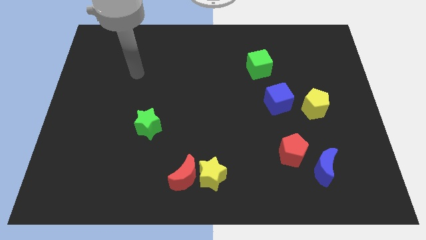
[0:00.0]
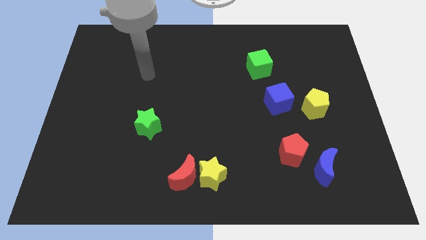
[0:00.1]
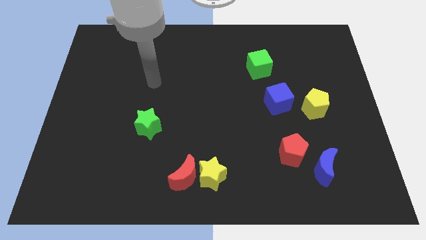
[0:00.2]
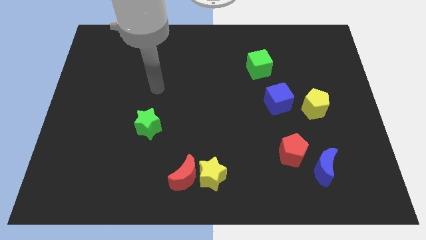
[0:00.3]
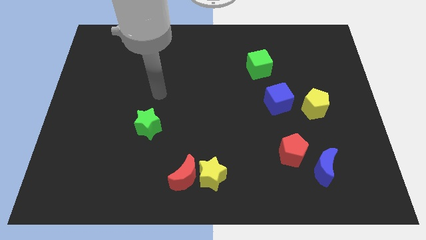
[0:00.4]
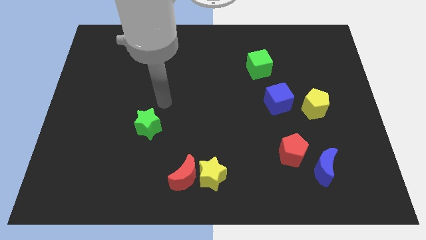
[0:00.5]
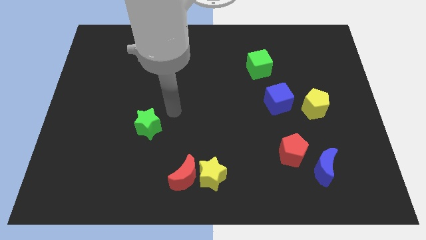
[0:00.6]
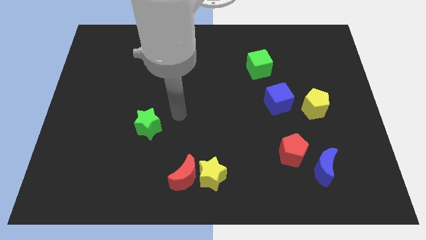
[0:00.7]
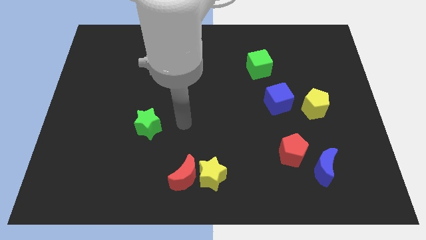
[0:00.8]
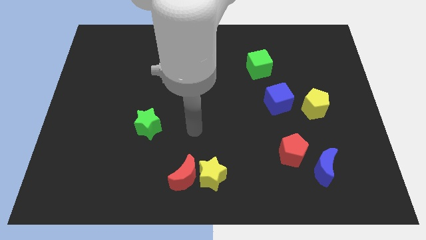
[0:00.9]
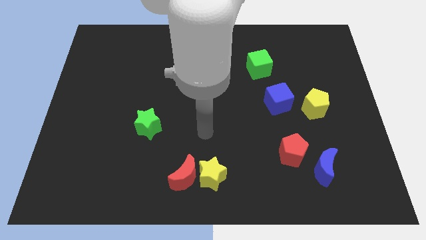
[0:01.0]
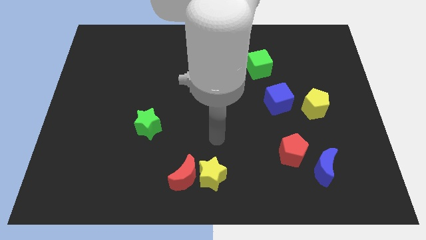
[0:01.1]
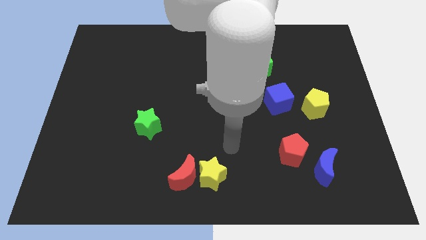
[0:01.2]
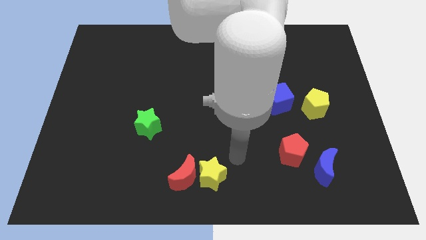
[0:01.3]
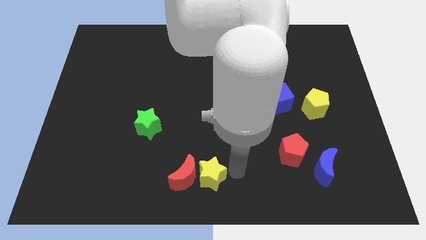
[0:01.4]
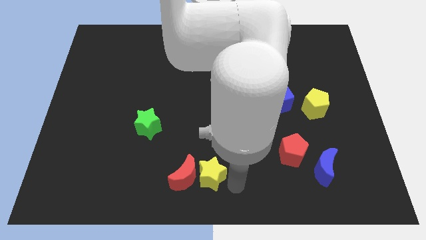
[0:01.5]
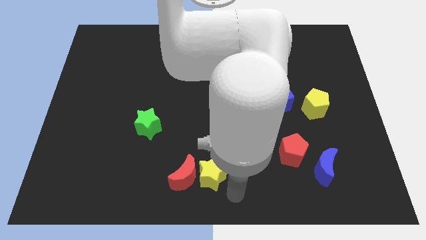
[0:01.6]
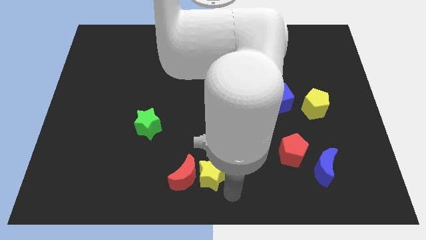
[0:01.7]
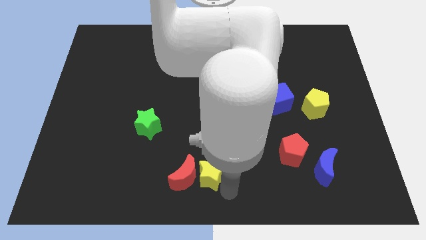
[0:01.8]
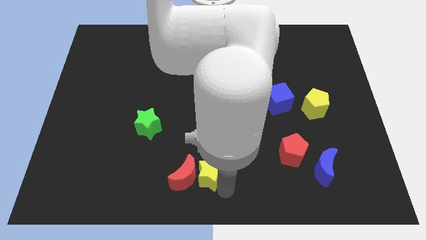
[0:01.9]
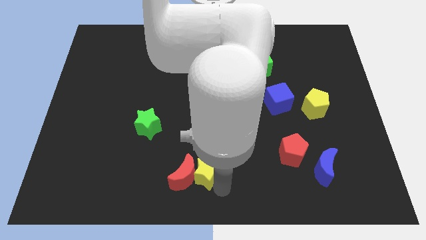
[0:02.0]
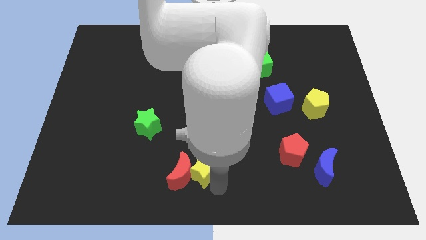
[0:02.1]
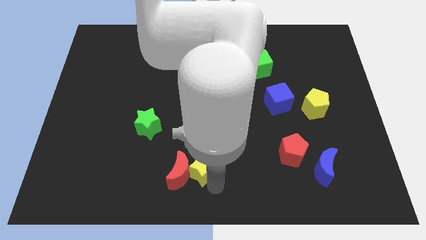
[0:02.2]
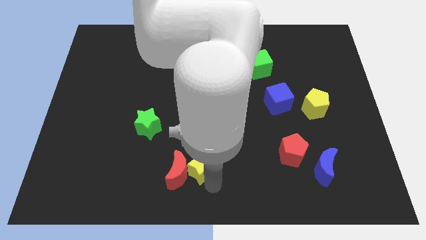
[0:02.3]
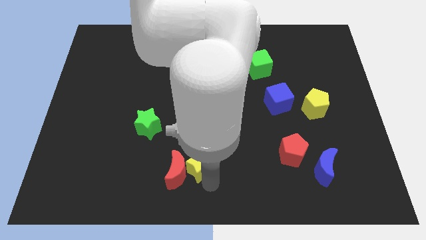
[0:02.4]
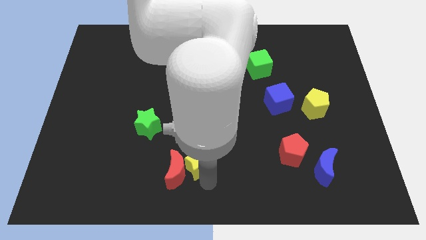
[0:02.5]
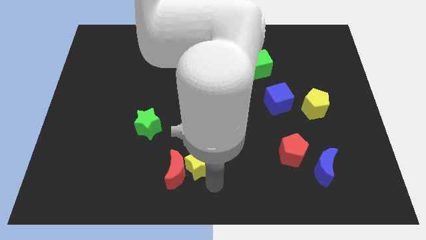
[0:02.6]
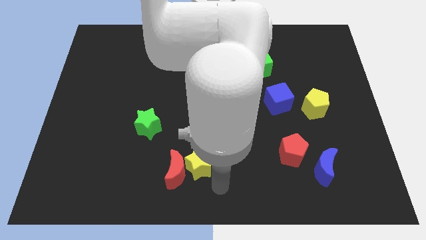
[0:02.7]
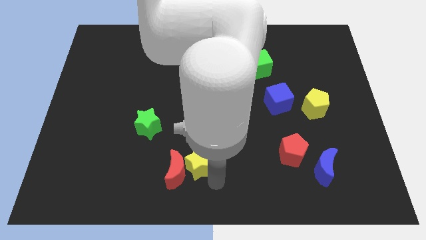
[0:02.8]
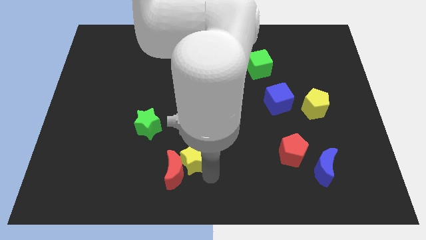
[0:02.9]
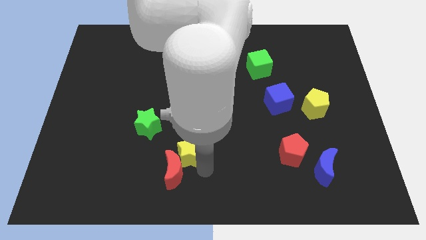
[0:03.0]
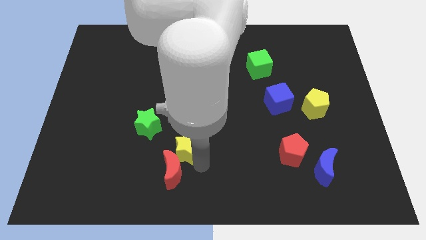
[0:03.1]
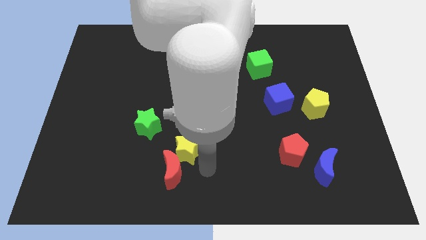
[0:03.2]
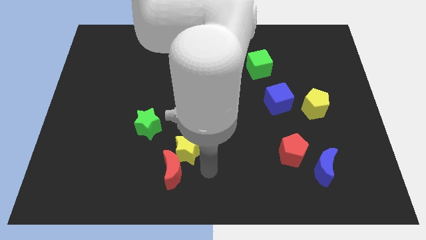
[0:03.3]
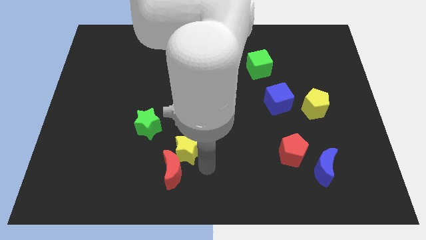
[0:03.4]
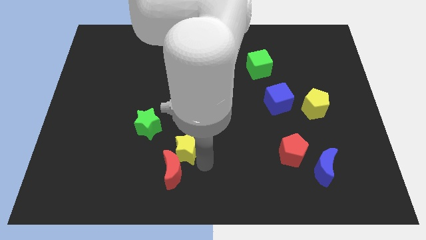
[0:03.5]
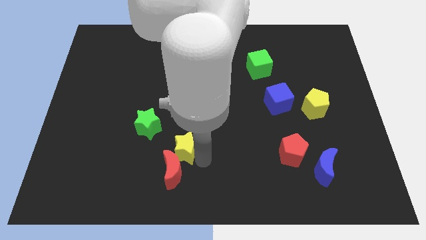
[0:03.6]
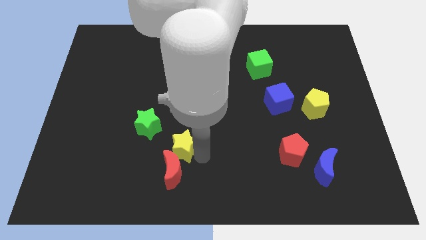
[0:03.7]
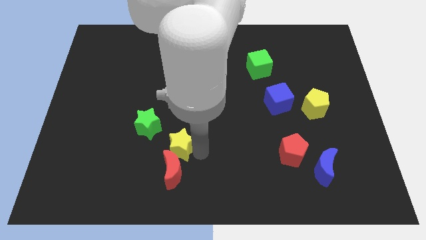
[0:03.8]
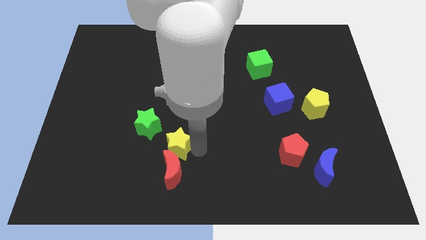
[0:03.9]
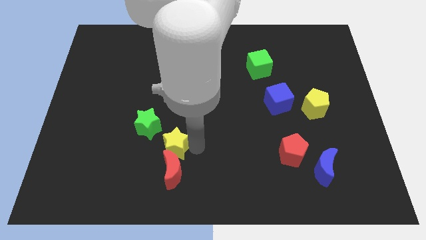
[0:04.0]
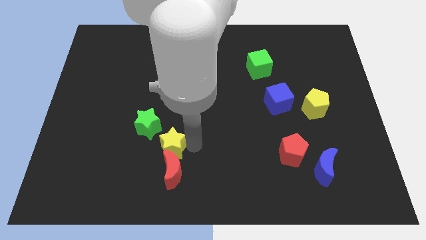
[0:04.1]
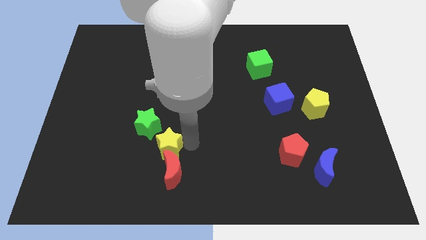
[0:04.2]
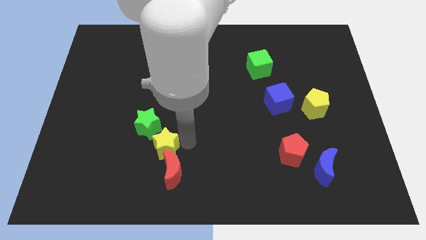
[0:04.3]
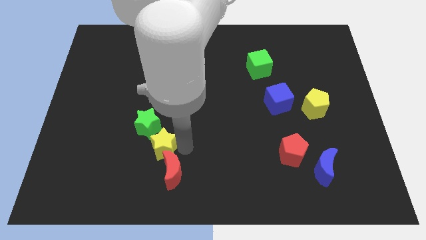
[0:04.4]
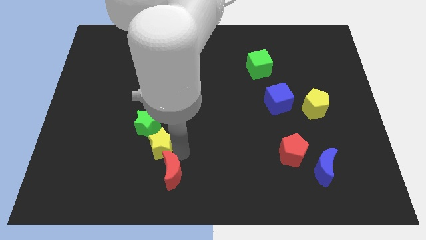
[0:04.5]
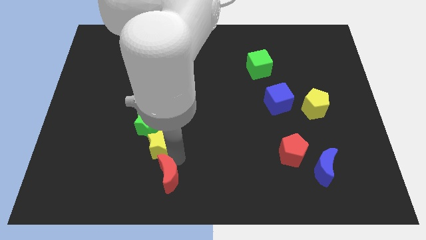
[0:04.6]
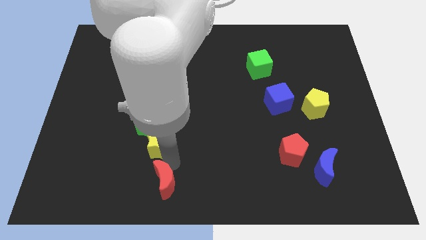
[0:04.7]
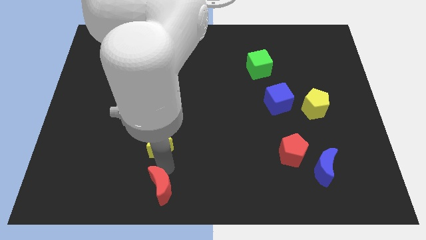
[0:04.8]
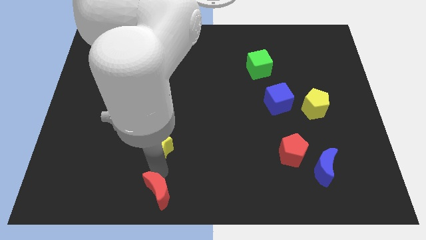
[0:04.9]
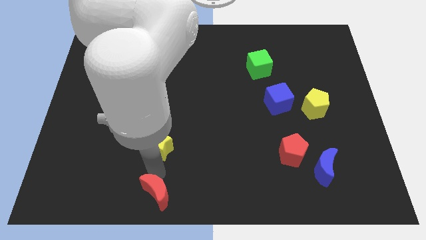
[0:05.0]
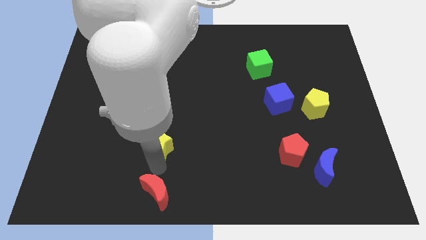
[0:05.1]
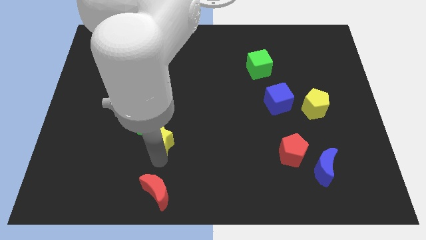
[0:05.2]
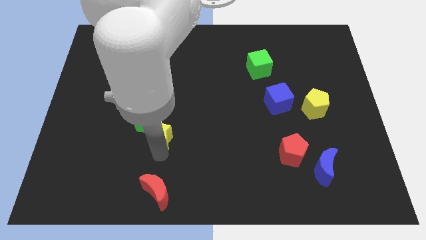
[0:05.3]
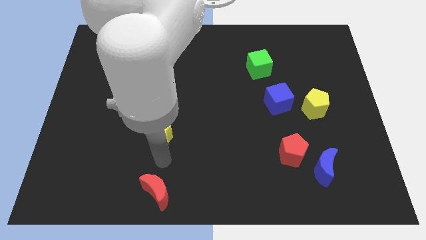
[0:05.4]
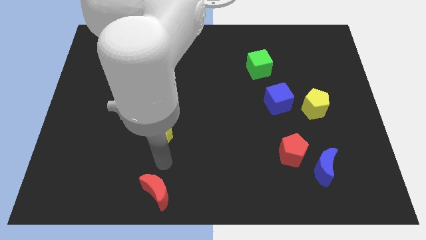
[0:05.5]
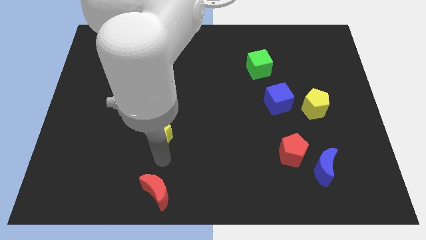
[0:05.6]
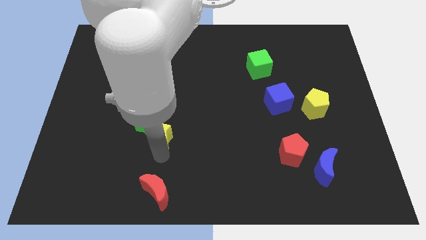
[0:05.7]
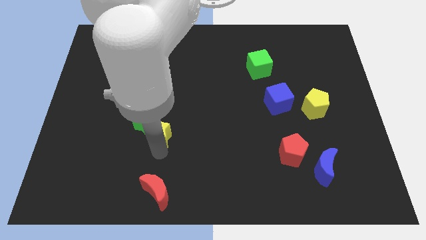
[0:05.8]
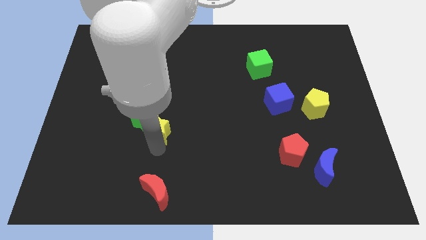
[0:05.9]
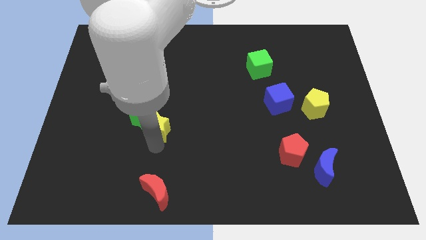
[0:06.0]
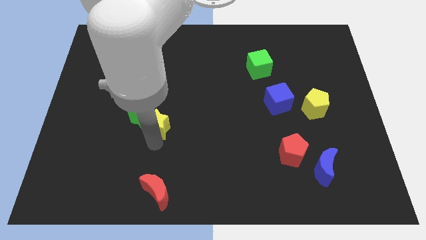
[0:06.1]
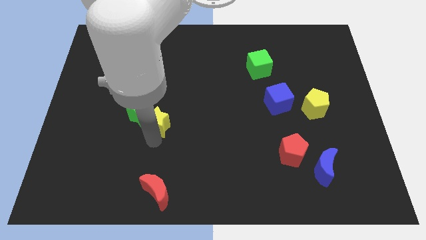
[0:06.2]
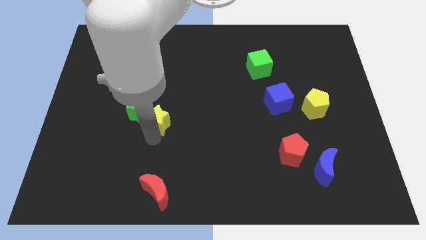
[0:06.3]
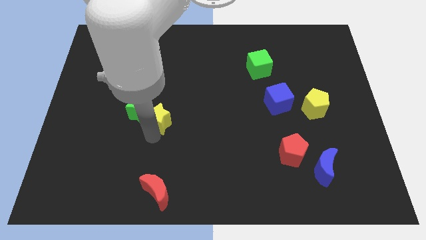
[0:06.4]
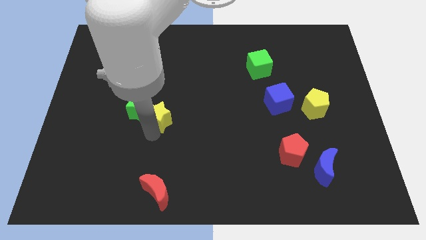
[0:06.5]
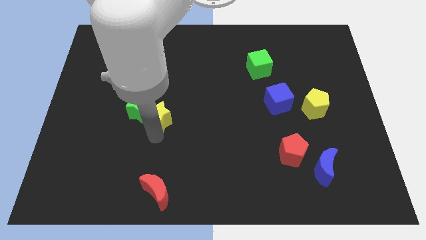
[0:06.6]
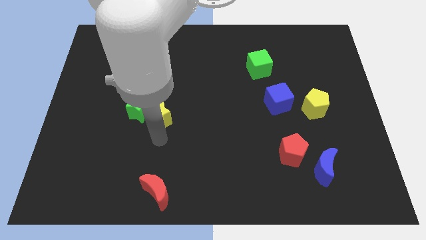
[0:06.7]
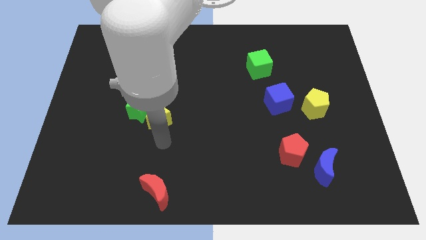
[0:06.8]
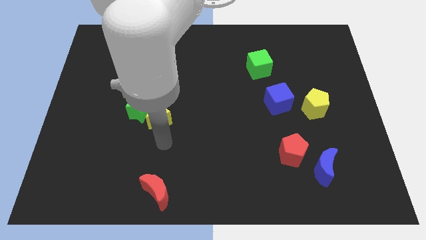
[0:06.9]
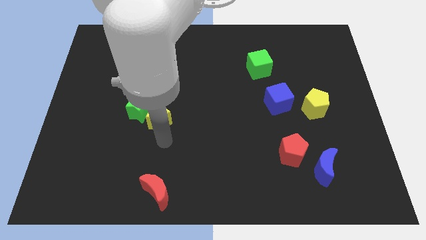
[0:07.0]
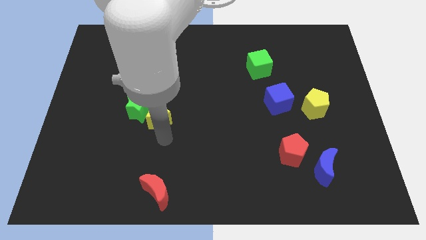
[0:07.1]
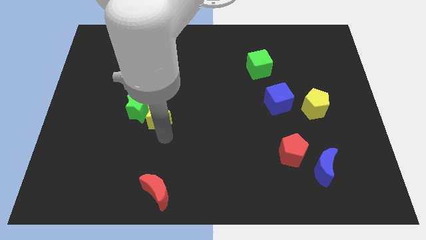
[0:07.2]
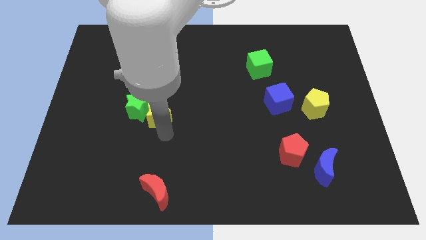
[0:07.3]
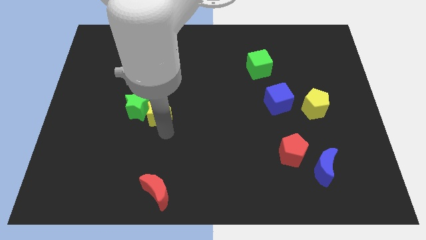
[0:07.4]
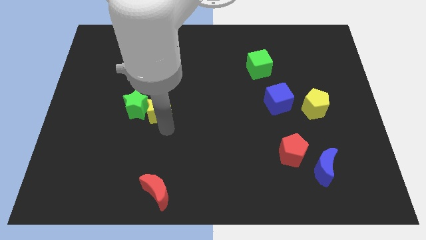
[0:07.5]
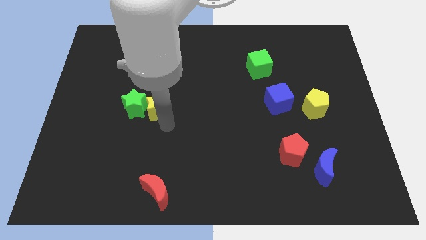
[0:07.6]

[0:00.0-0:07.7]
push the yellow star diagonally upwards and to the left

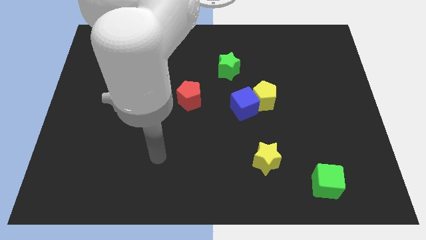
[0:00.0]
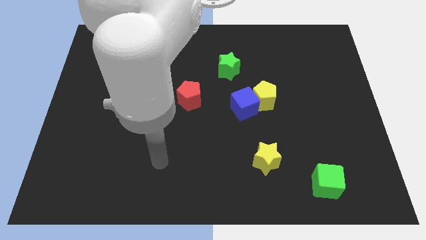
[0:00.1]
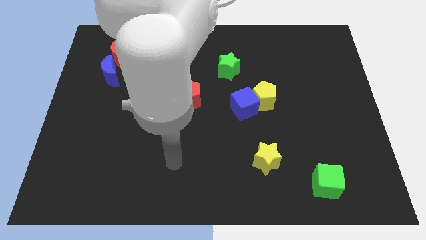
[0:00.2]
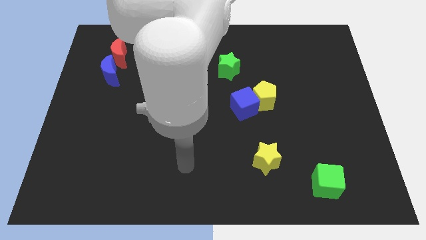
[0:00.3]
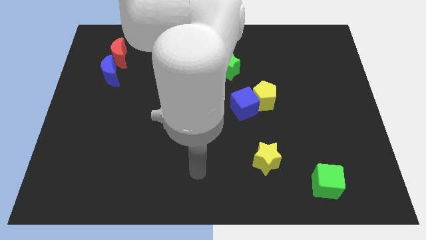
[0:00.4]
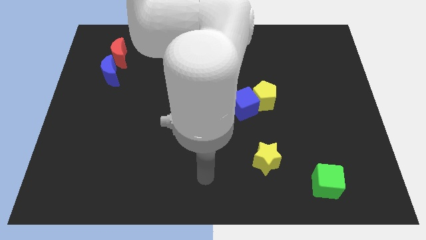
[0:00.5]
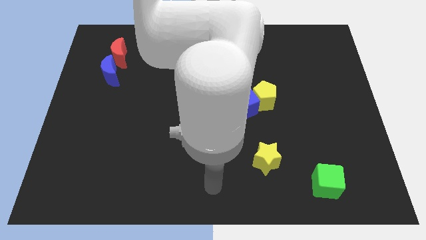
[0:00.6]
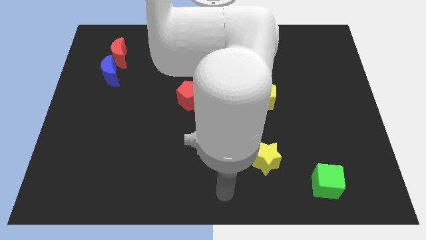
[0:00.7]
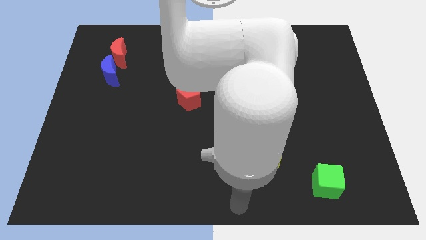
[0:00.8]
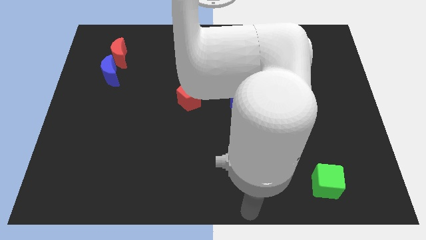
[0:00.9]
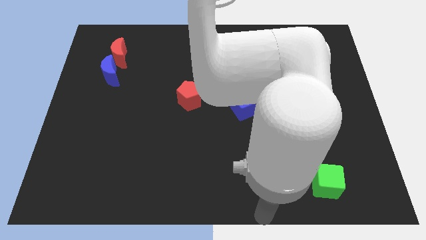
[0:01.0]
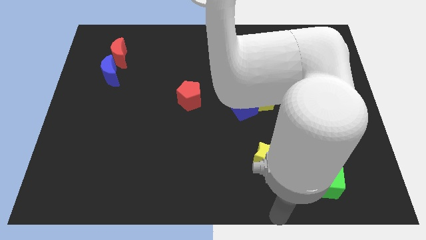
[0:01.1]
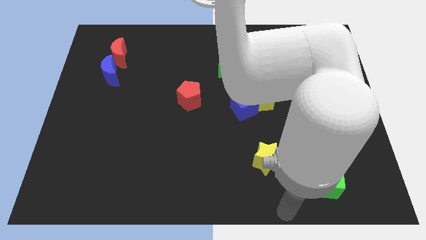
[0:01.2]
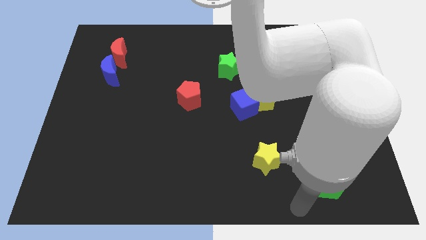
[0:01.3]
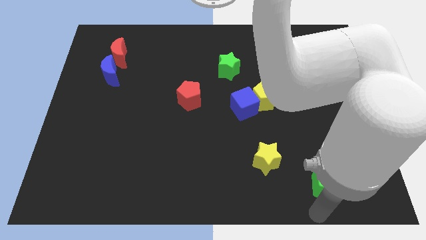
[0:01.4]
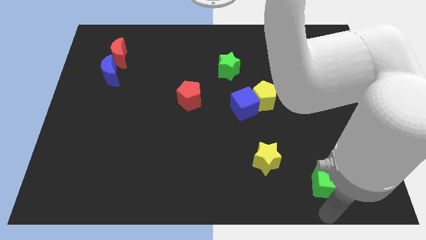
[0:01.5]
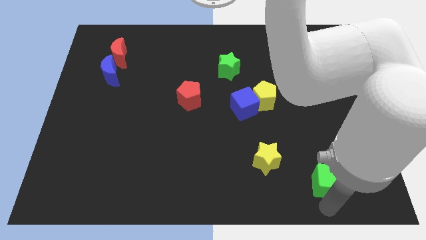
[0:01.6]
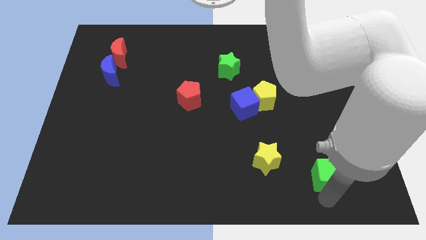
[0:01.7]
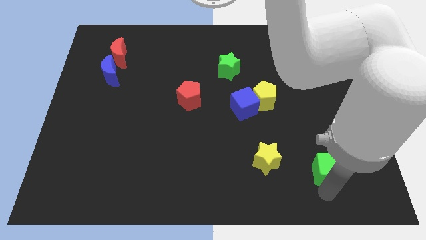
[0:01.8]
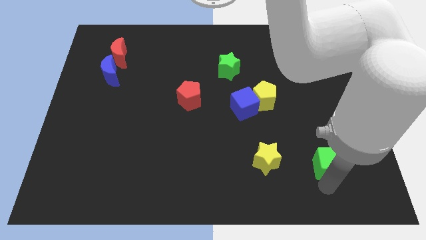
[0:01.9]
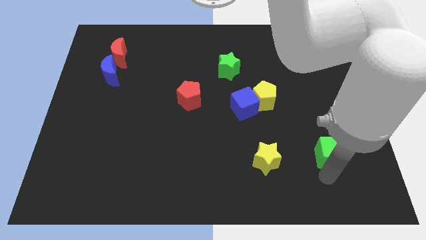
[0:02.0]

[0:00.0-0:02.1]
slide the green cube a little bit upwards
